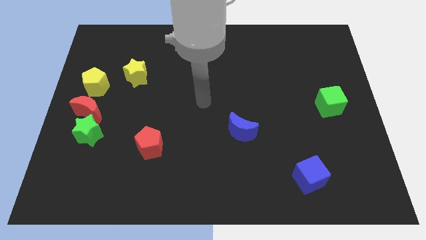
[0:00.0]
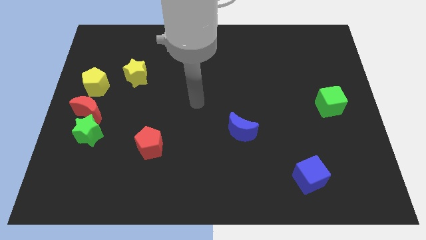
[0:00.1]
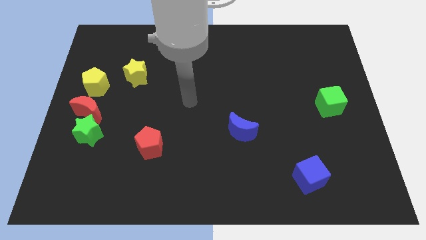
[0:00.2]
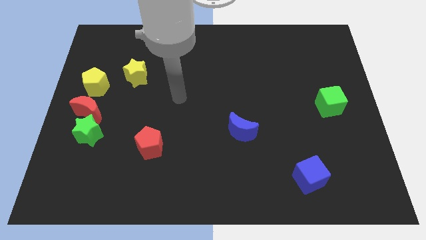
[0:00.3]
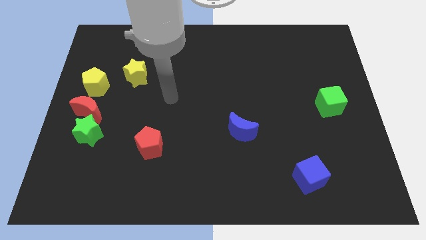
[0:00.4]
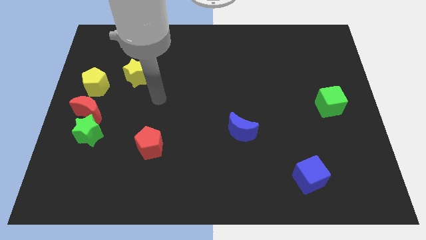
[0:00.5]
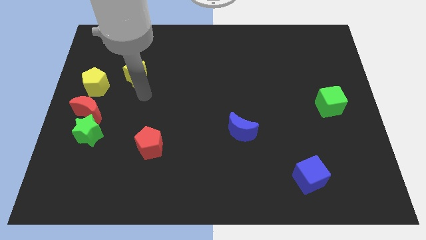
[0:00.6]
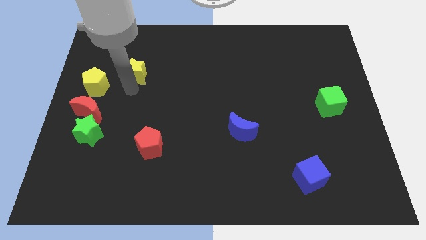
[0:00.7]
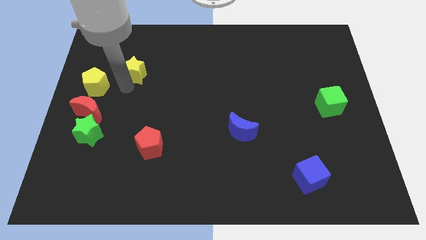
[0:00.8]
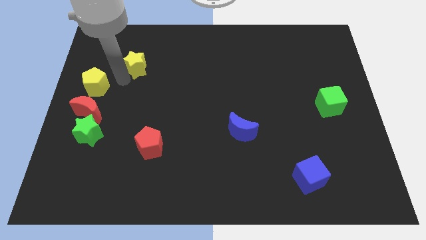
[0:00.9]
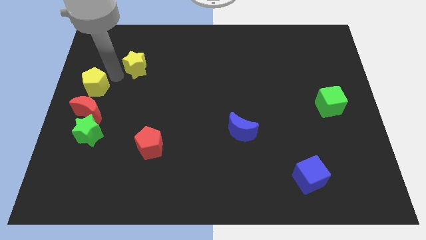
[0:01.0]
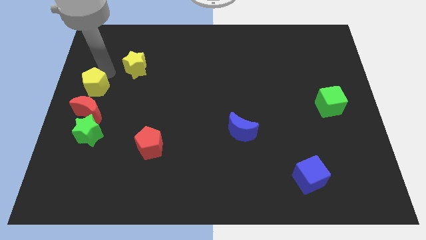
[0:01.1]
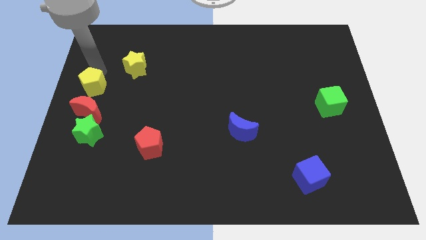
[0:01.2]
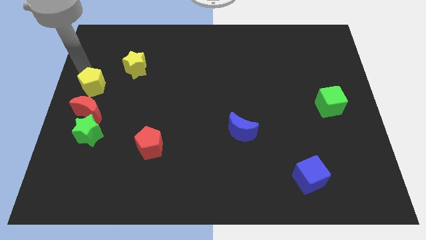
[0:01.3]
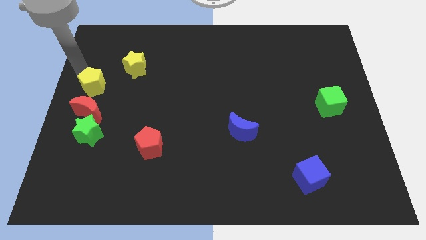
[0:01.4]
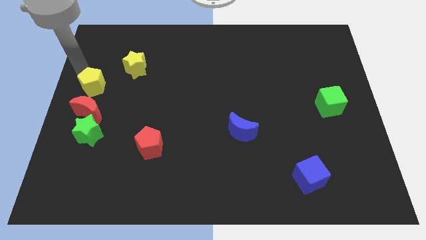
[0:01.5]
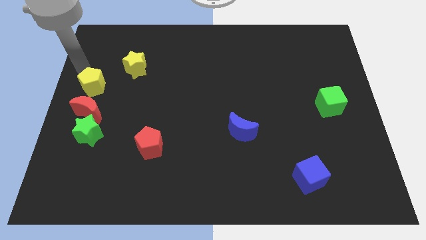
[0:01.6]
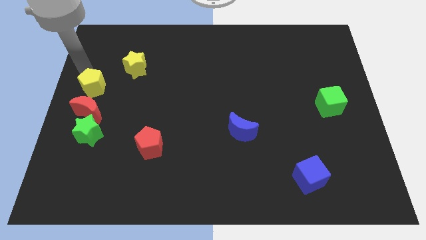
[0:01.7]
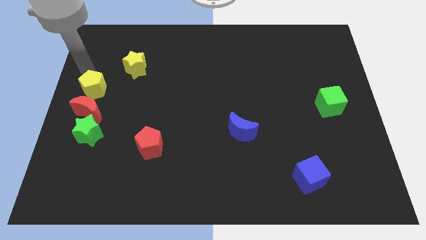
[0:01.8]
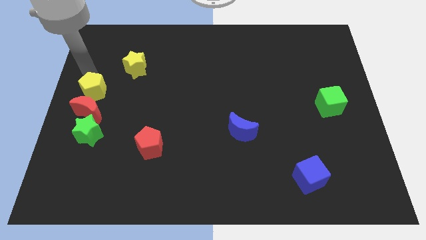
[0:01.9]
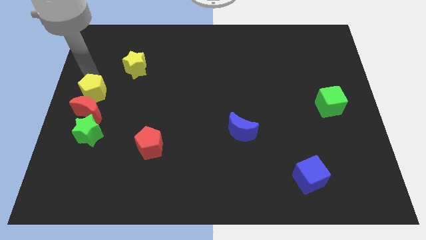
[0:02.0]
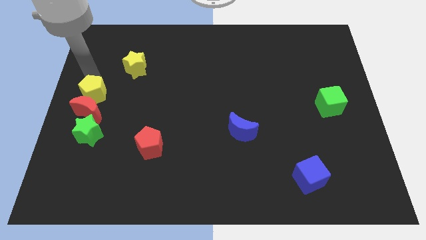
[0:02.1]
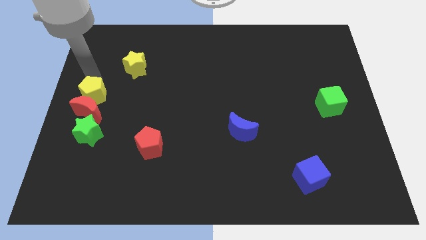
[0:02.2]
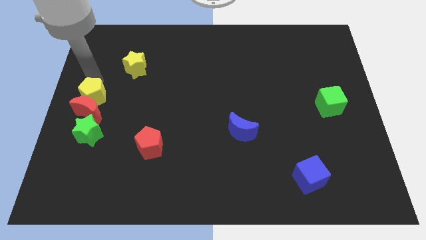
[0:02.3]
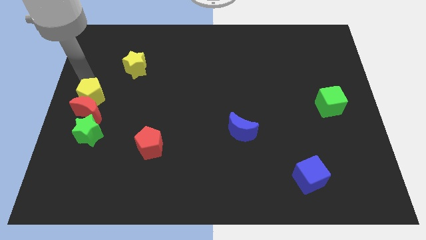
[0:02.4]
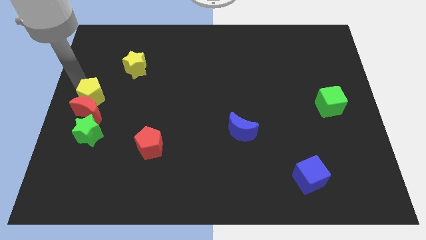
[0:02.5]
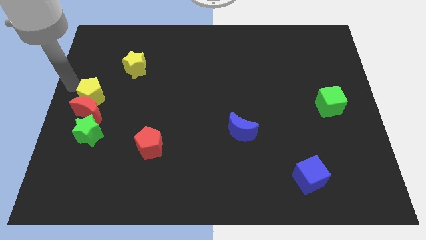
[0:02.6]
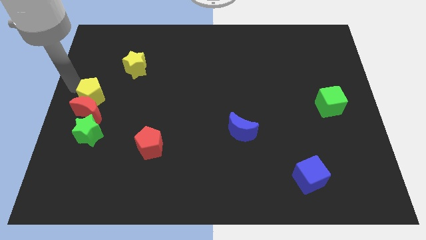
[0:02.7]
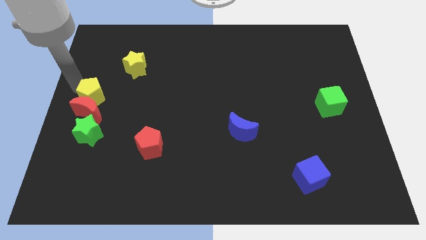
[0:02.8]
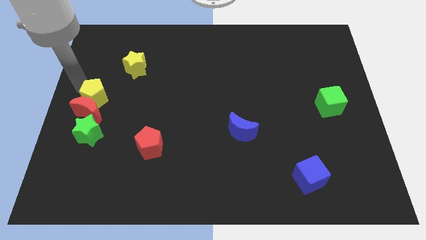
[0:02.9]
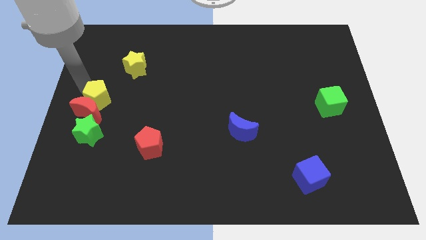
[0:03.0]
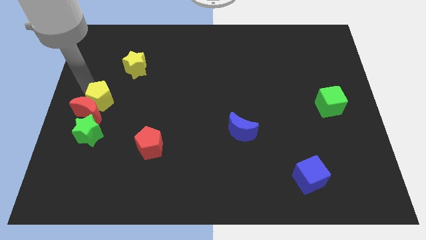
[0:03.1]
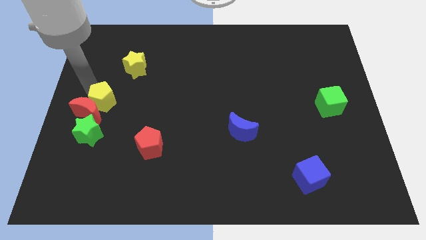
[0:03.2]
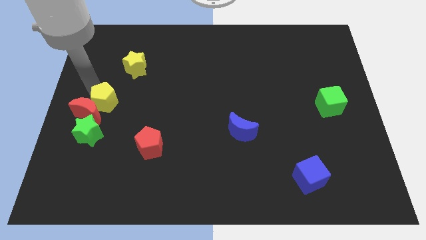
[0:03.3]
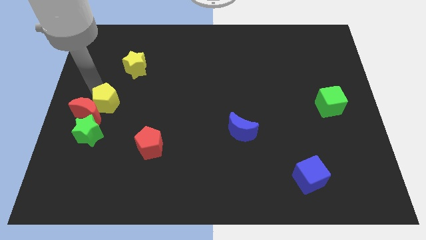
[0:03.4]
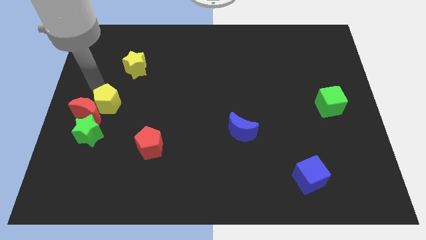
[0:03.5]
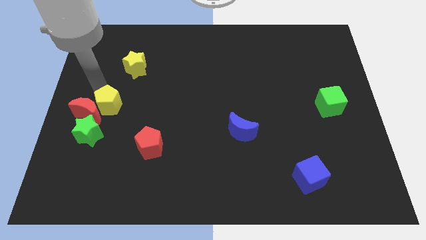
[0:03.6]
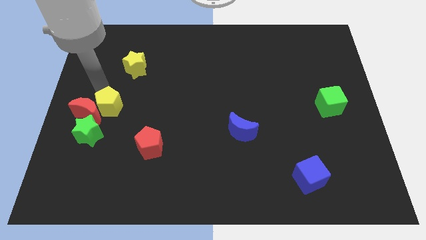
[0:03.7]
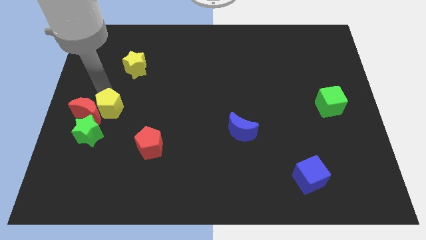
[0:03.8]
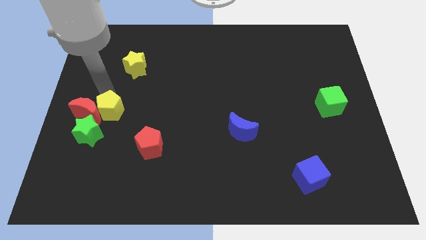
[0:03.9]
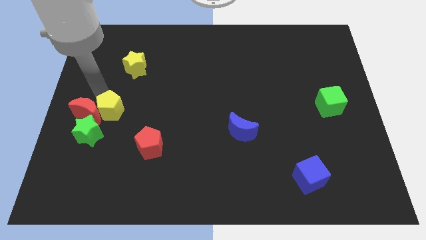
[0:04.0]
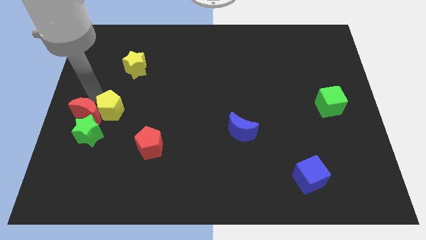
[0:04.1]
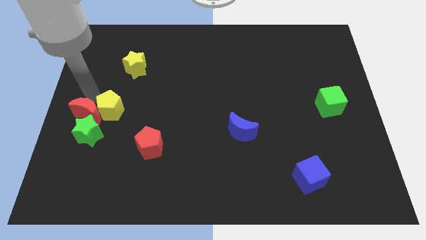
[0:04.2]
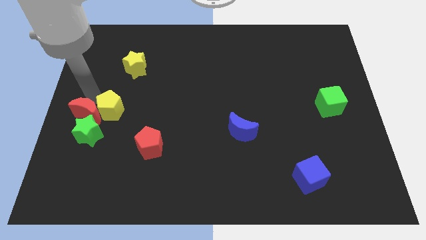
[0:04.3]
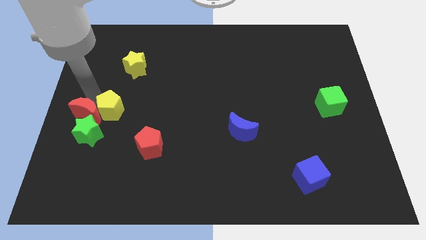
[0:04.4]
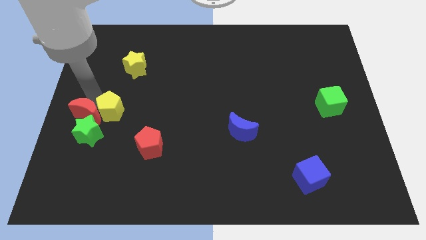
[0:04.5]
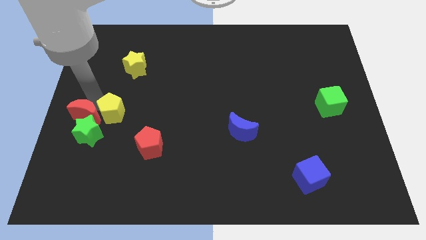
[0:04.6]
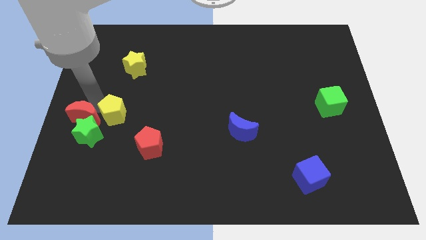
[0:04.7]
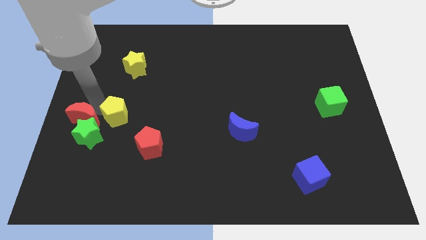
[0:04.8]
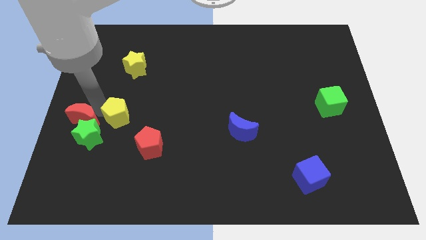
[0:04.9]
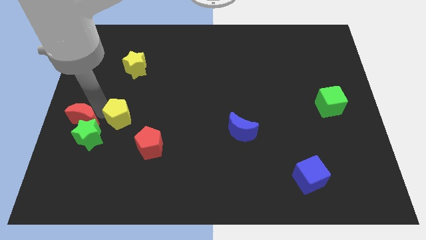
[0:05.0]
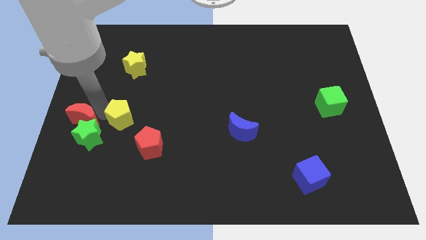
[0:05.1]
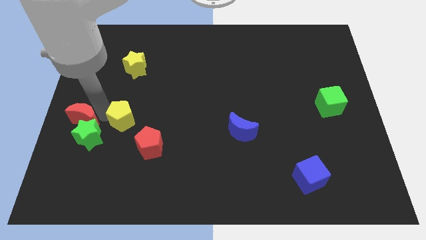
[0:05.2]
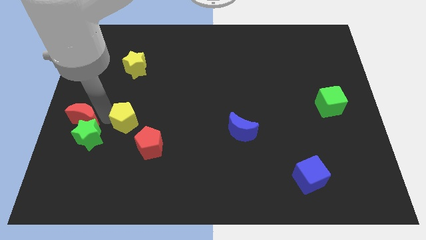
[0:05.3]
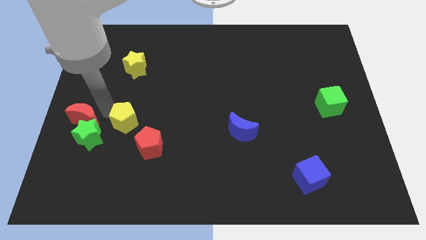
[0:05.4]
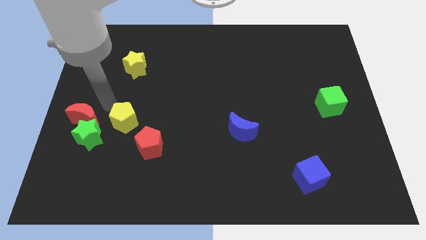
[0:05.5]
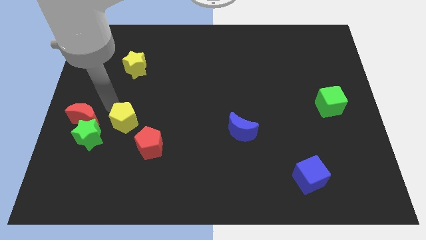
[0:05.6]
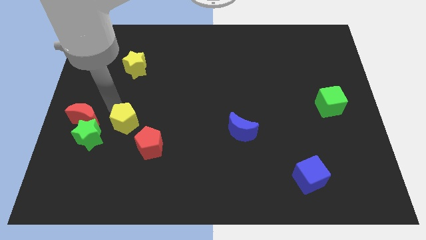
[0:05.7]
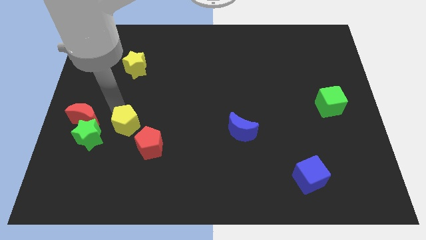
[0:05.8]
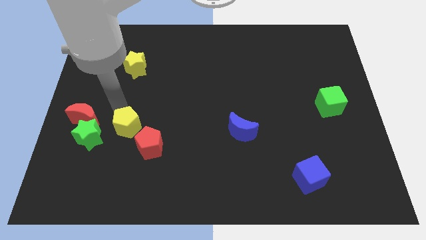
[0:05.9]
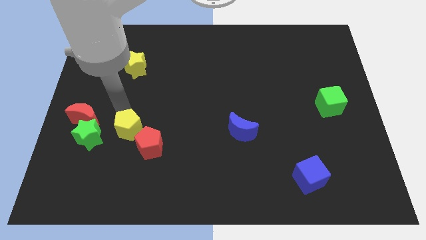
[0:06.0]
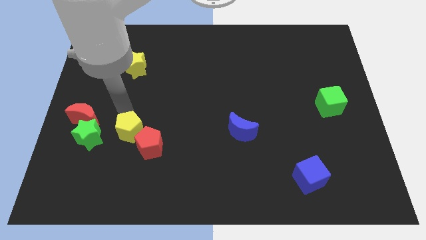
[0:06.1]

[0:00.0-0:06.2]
push the yellow pentagon close to the red pentagon

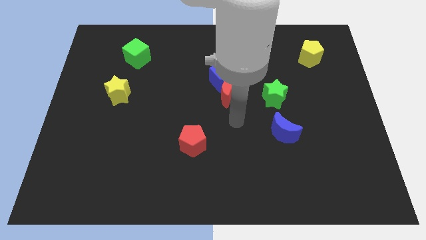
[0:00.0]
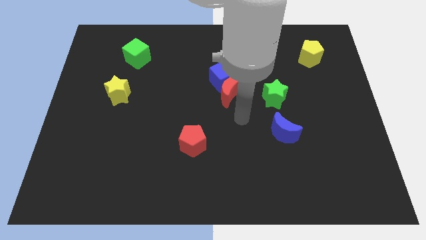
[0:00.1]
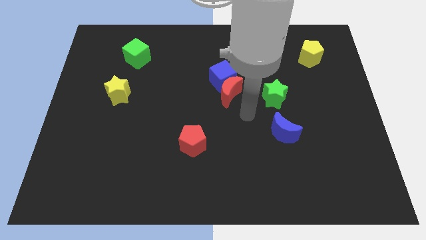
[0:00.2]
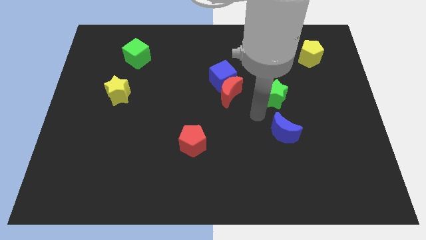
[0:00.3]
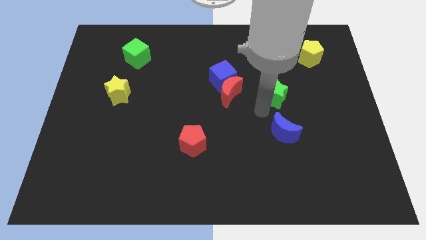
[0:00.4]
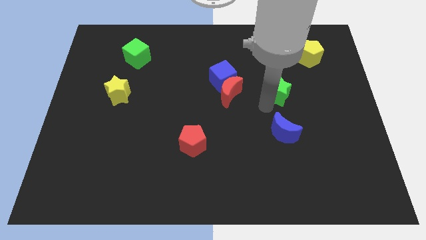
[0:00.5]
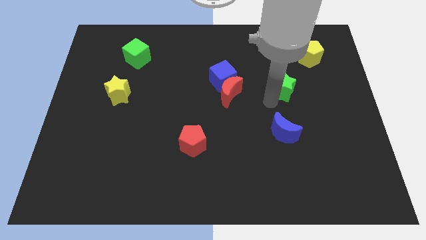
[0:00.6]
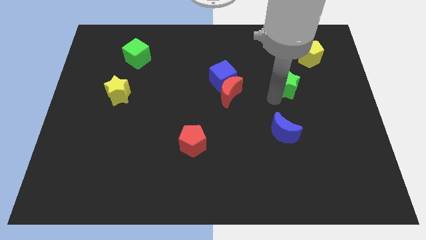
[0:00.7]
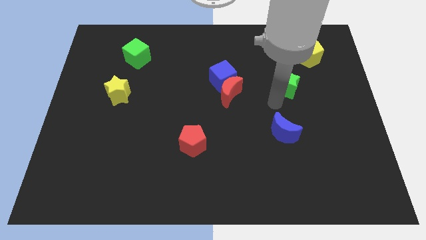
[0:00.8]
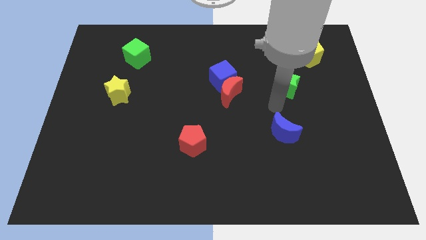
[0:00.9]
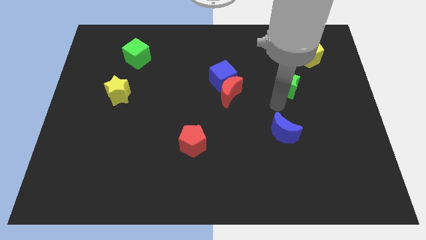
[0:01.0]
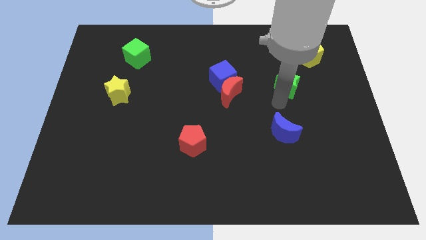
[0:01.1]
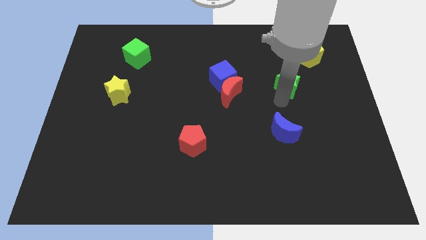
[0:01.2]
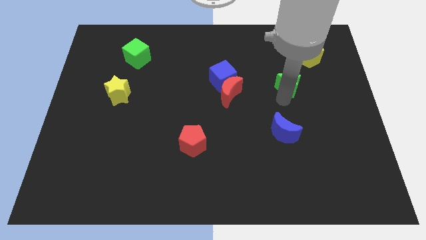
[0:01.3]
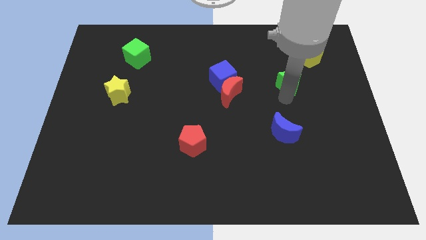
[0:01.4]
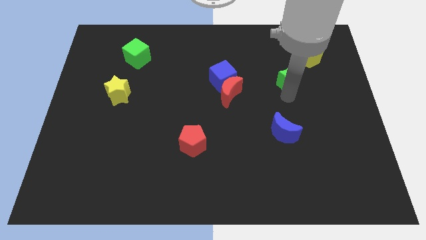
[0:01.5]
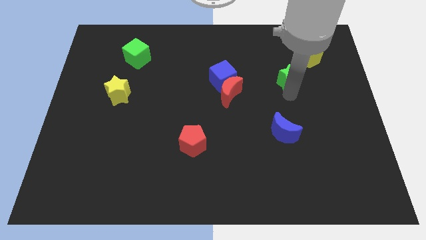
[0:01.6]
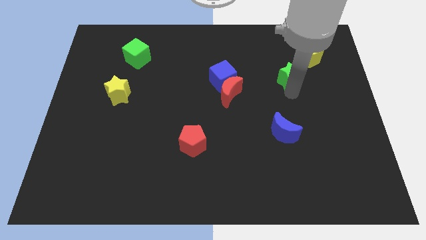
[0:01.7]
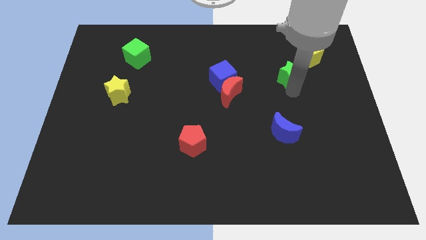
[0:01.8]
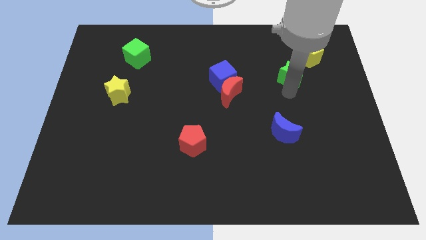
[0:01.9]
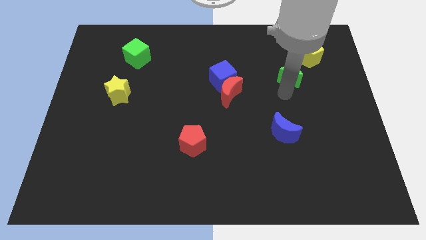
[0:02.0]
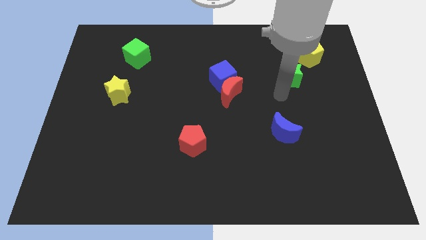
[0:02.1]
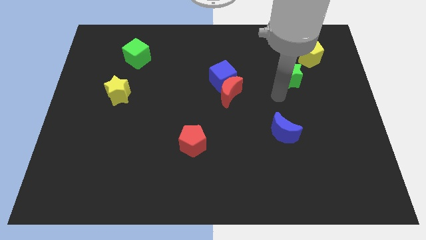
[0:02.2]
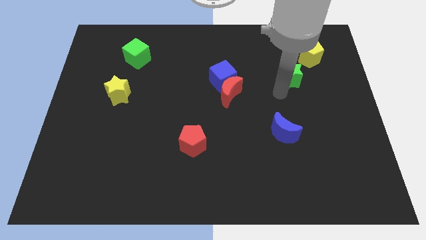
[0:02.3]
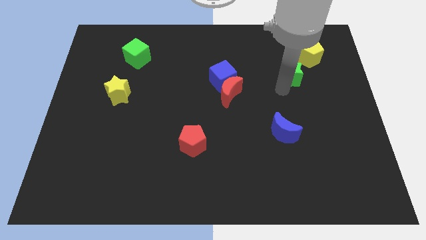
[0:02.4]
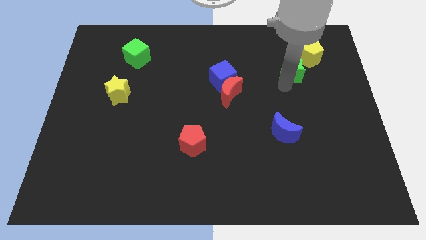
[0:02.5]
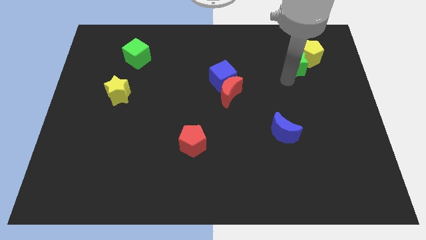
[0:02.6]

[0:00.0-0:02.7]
push the green star towards the yellow pentagon
